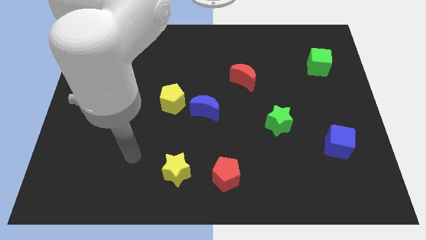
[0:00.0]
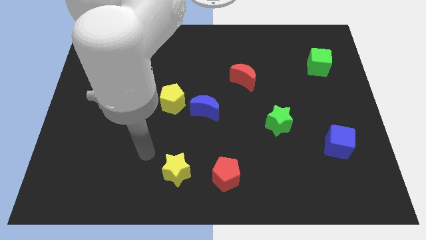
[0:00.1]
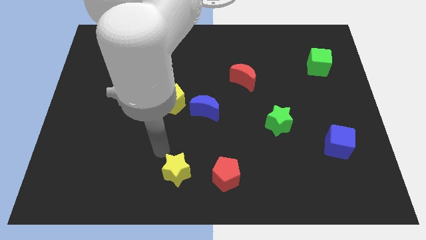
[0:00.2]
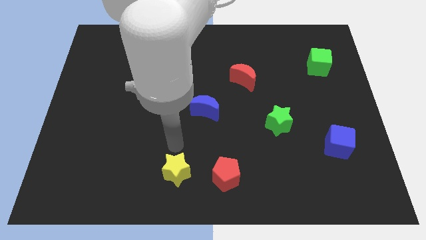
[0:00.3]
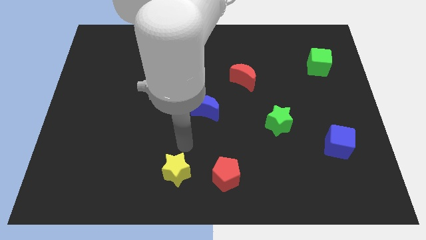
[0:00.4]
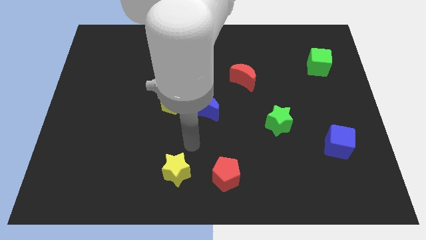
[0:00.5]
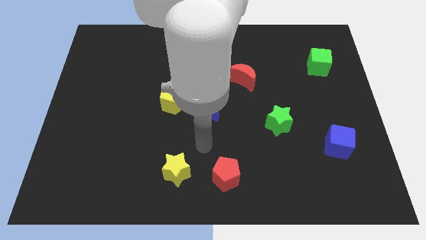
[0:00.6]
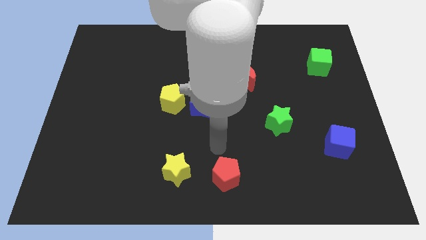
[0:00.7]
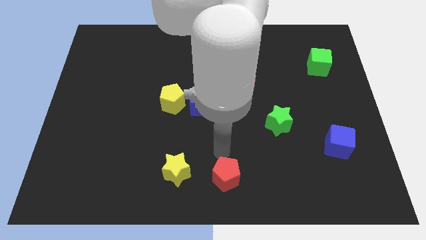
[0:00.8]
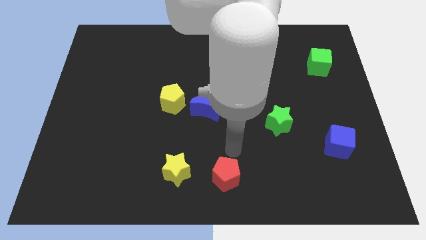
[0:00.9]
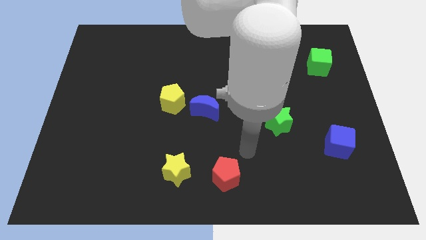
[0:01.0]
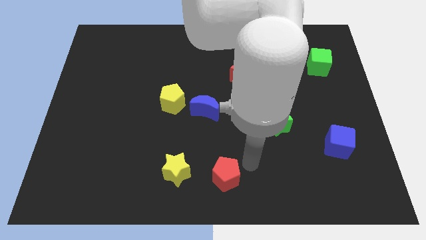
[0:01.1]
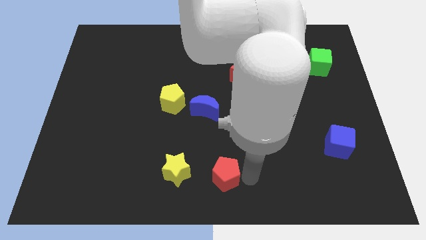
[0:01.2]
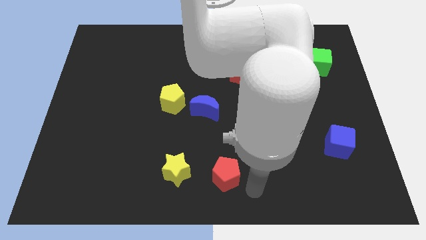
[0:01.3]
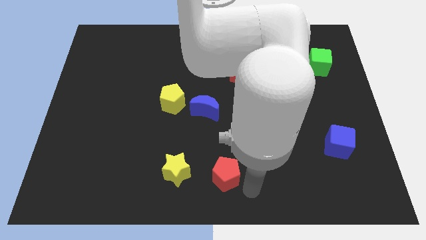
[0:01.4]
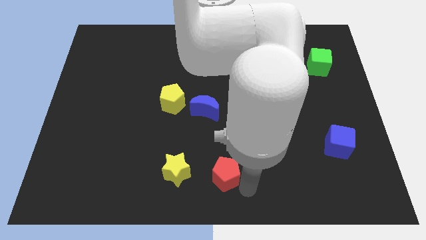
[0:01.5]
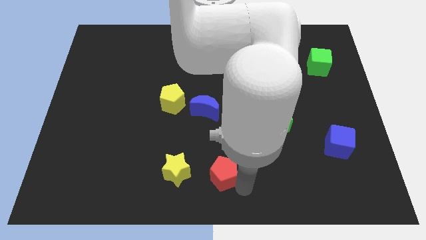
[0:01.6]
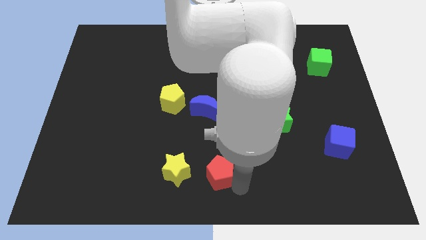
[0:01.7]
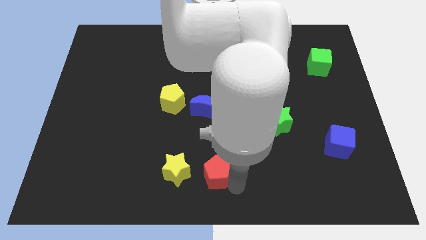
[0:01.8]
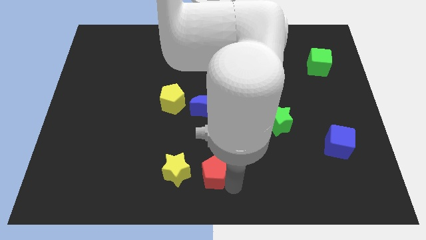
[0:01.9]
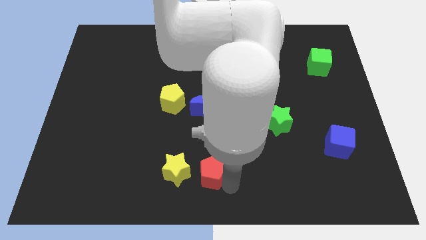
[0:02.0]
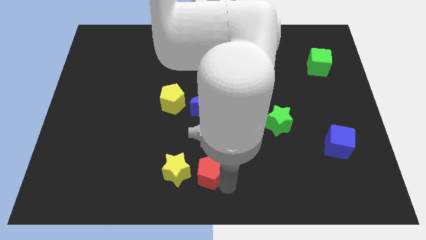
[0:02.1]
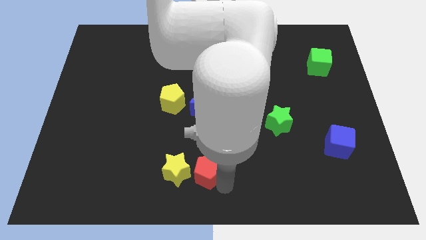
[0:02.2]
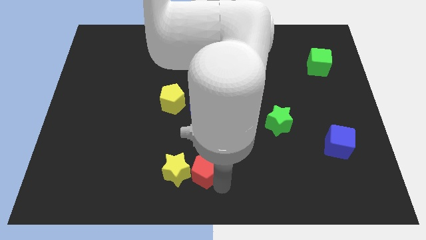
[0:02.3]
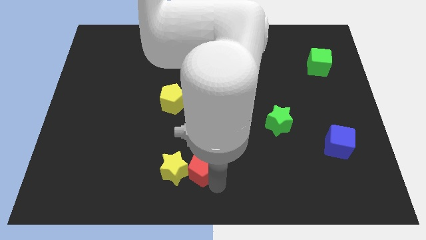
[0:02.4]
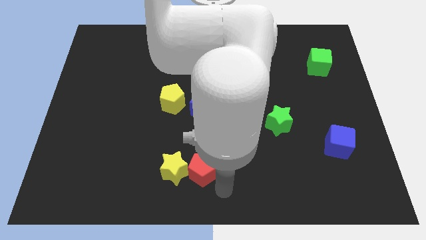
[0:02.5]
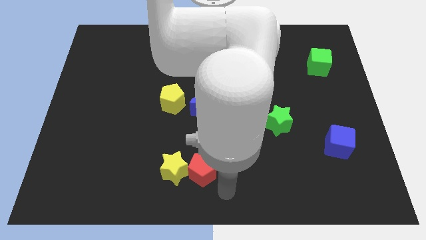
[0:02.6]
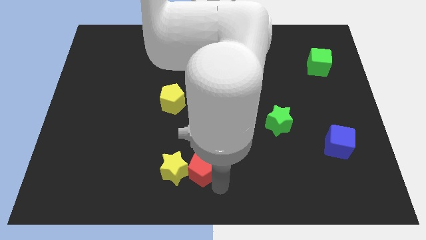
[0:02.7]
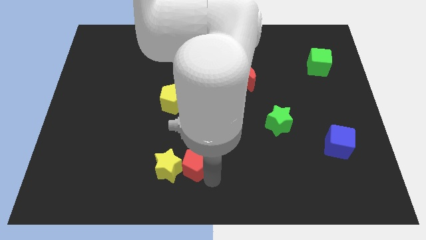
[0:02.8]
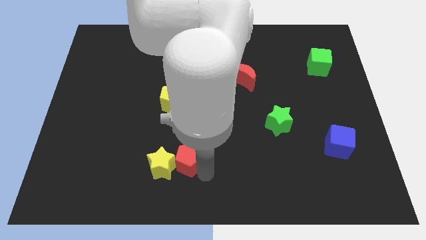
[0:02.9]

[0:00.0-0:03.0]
move the red pentagon to the left somewhat

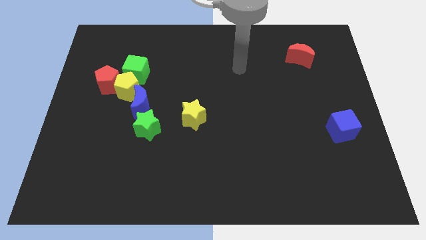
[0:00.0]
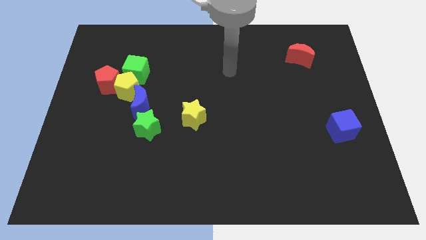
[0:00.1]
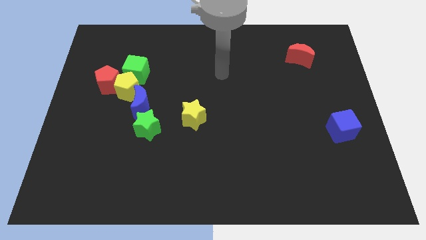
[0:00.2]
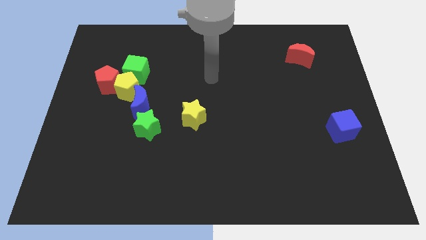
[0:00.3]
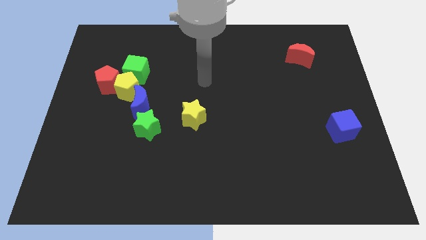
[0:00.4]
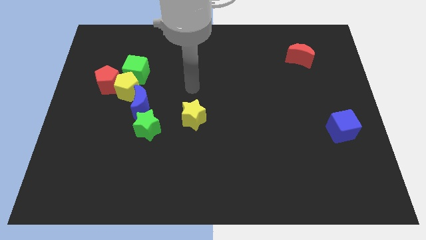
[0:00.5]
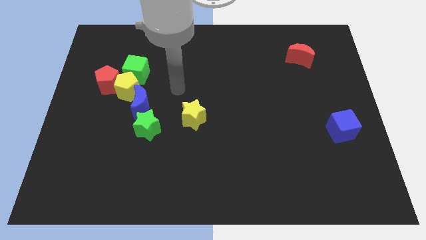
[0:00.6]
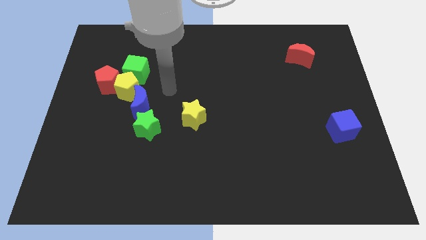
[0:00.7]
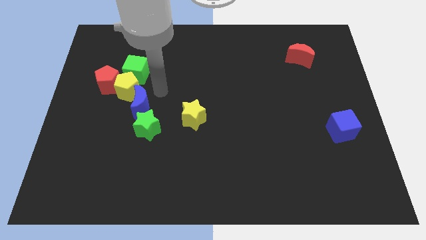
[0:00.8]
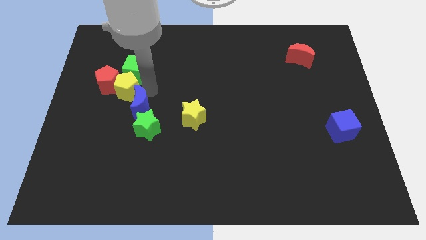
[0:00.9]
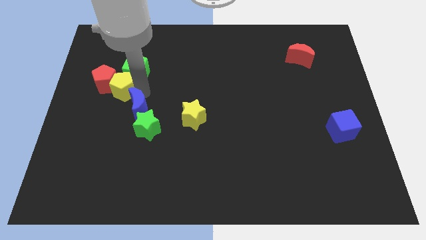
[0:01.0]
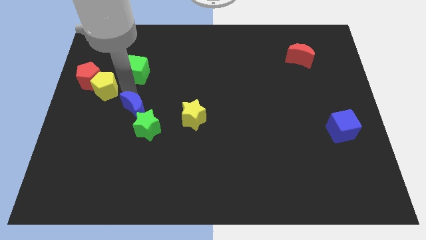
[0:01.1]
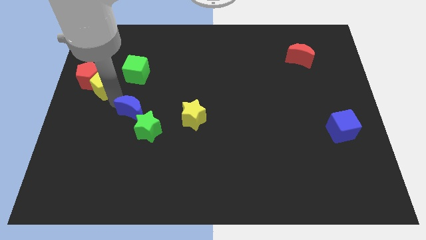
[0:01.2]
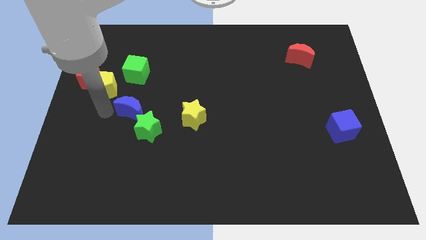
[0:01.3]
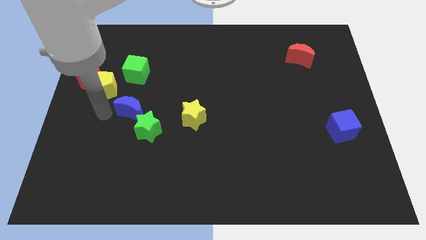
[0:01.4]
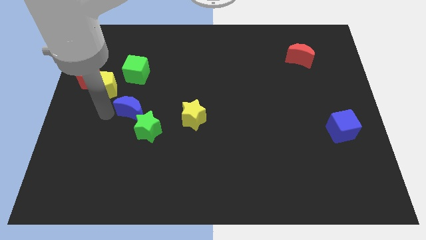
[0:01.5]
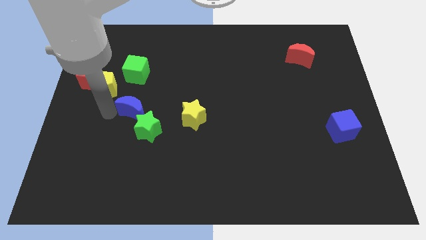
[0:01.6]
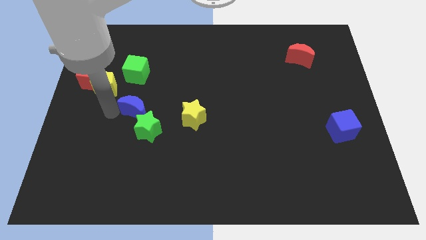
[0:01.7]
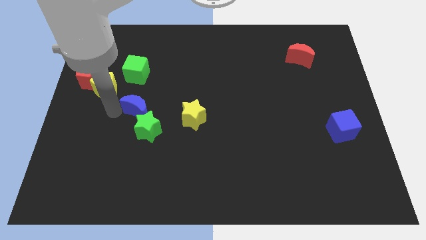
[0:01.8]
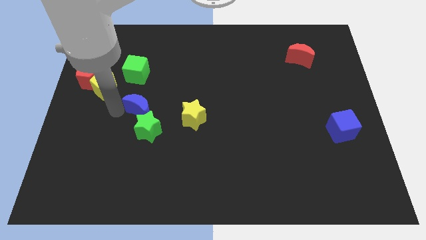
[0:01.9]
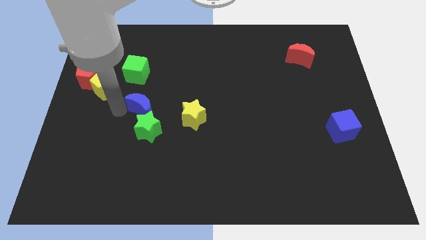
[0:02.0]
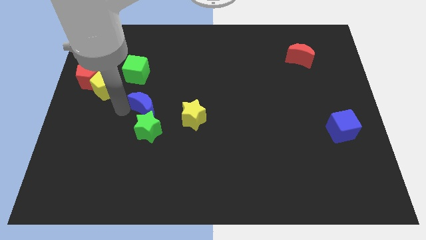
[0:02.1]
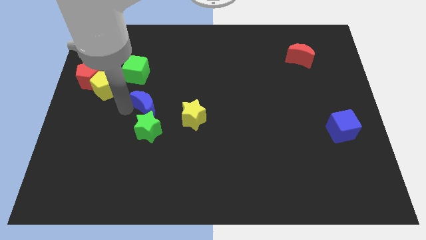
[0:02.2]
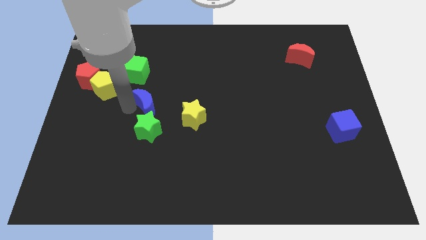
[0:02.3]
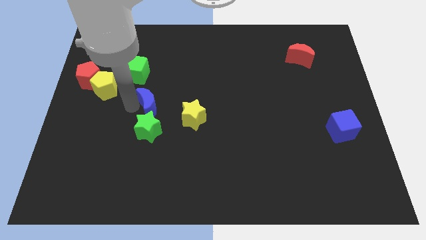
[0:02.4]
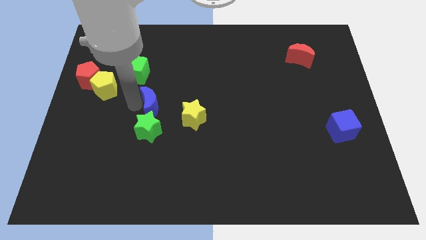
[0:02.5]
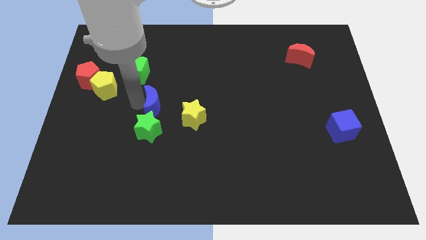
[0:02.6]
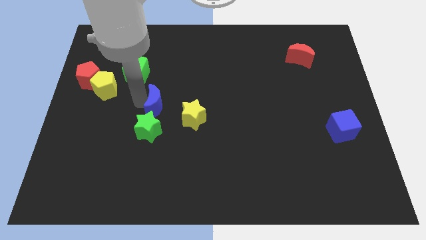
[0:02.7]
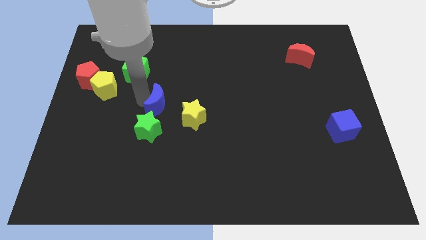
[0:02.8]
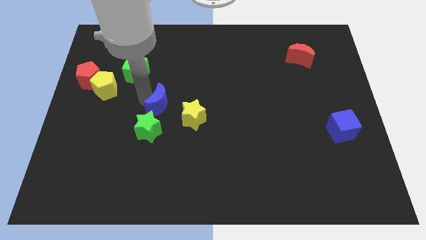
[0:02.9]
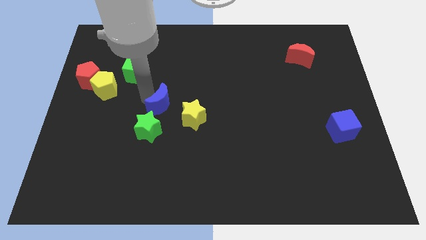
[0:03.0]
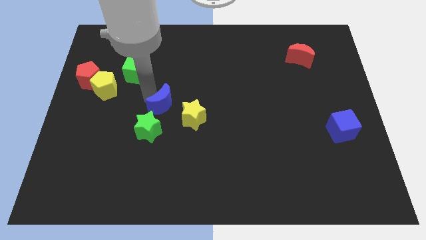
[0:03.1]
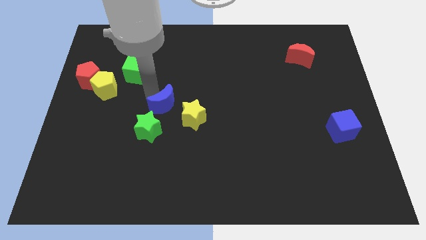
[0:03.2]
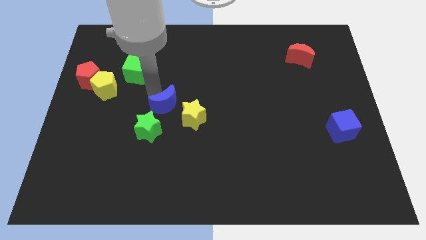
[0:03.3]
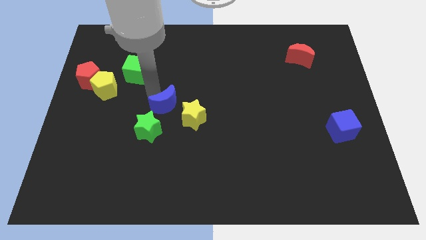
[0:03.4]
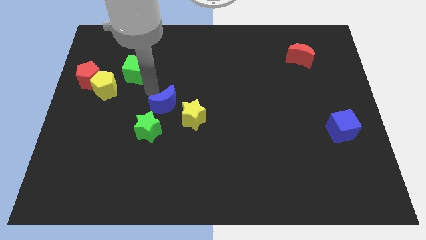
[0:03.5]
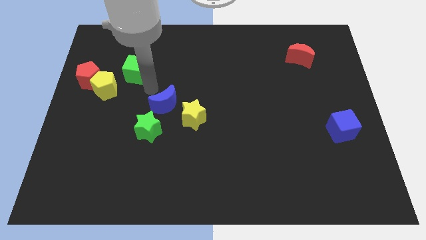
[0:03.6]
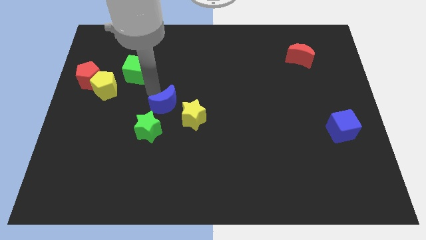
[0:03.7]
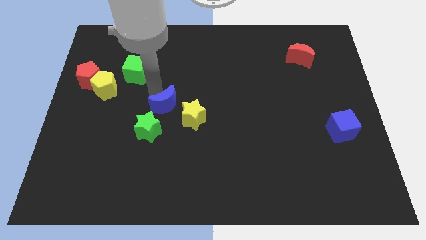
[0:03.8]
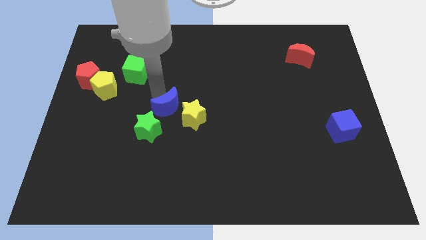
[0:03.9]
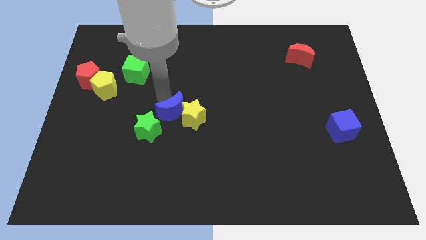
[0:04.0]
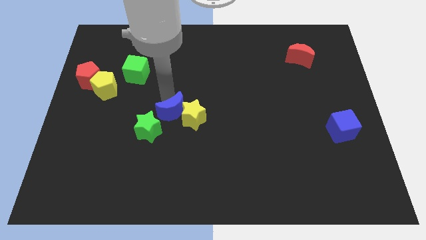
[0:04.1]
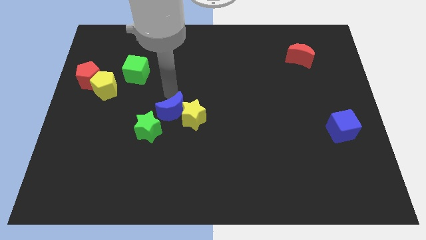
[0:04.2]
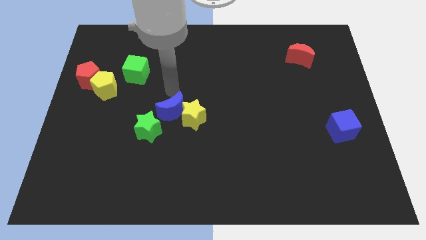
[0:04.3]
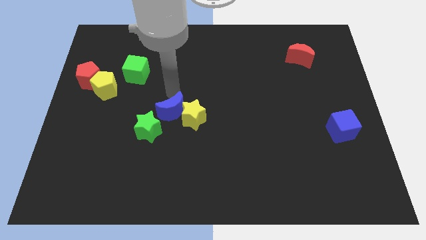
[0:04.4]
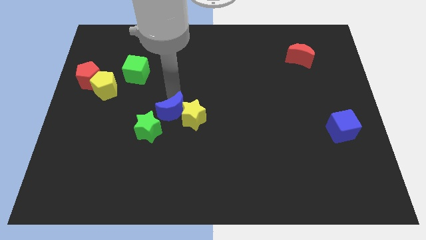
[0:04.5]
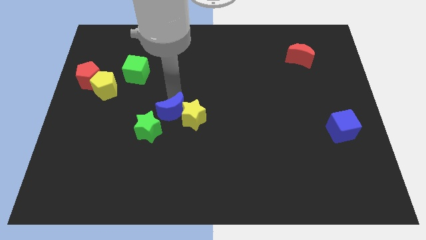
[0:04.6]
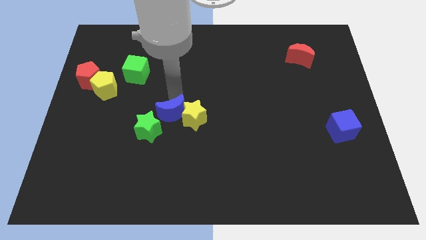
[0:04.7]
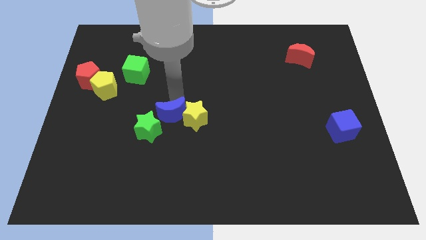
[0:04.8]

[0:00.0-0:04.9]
slide the blue moon a little bit diagonally down and to the right

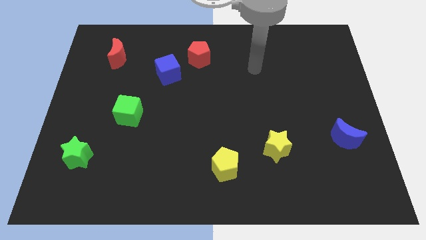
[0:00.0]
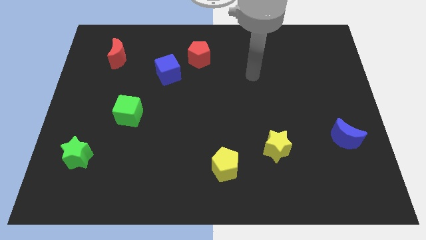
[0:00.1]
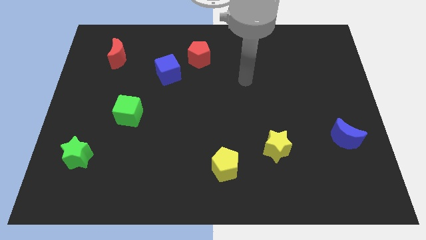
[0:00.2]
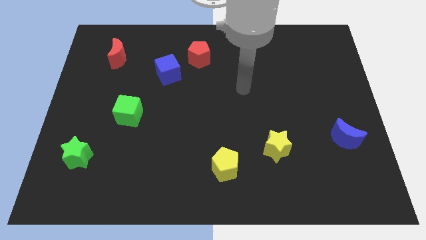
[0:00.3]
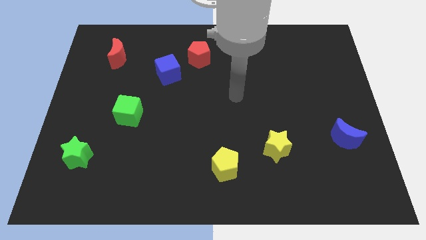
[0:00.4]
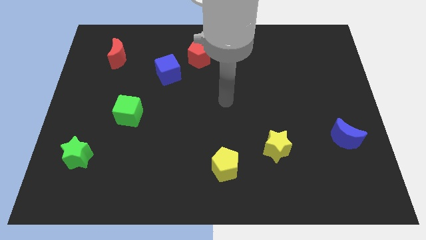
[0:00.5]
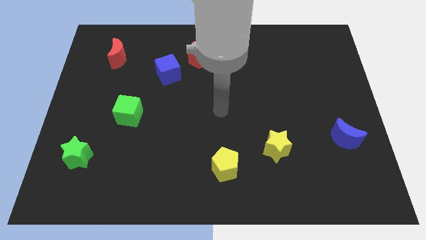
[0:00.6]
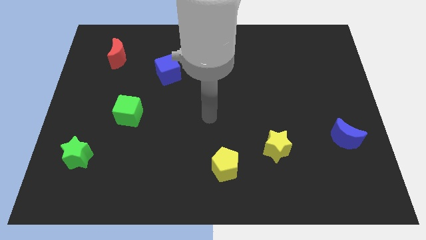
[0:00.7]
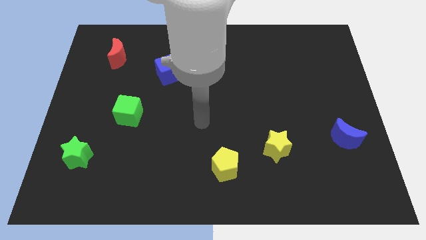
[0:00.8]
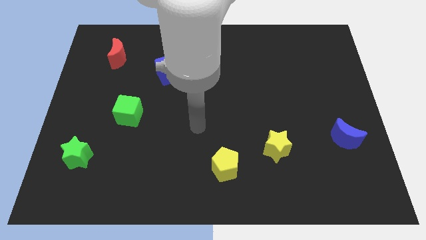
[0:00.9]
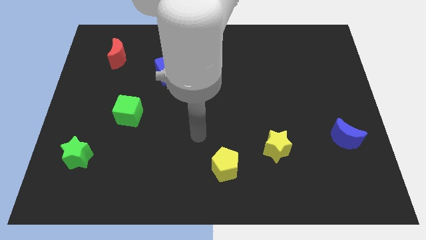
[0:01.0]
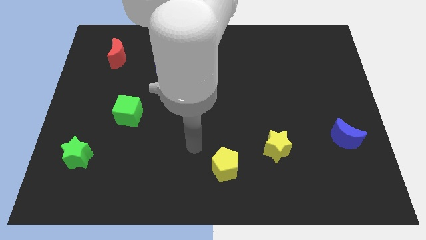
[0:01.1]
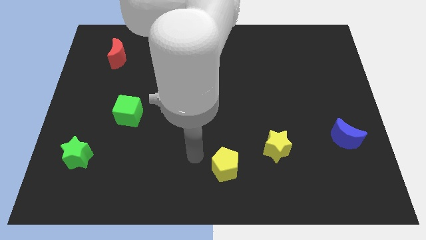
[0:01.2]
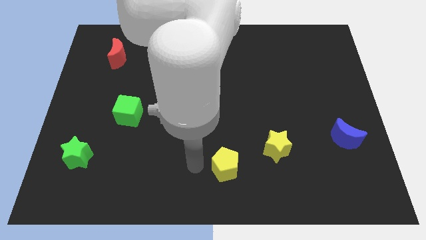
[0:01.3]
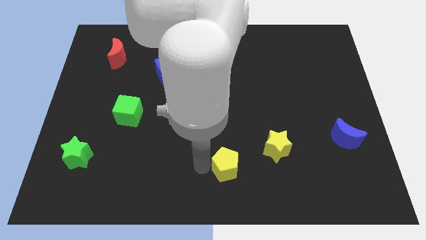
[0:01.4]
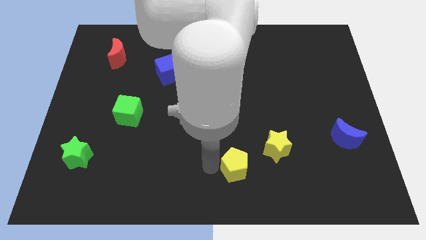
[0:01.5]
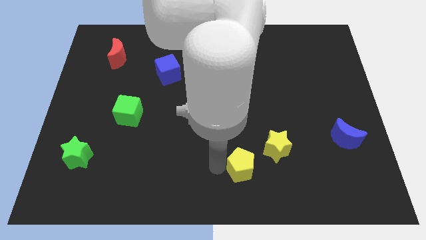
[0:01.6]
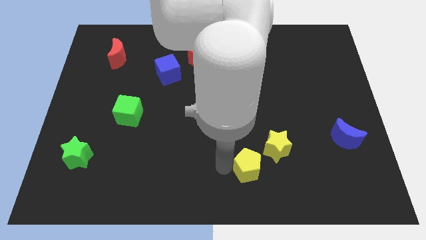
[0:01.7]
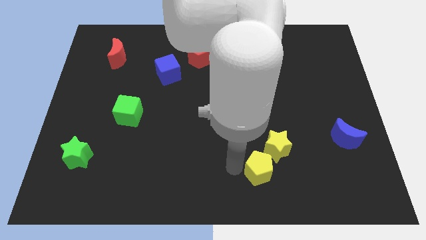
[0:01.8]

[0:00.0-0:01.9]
slide the yellow pentagon a little bit to the right
